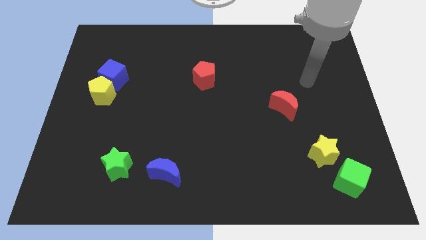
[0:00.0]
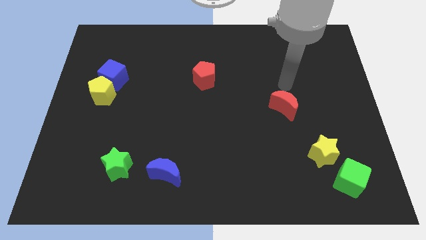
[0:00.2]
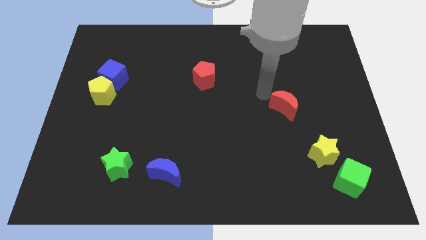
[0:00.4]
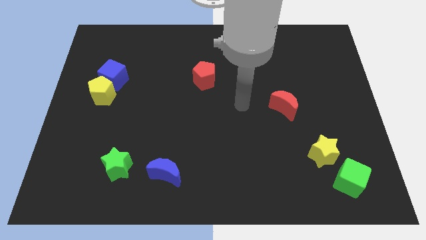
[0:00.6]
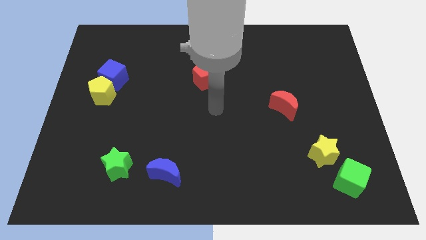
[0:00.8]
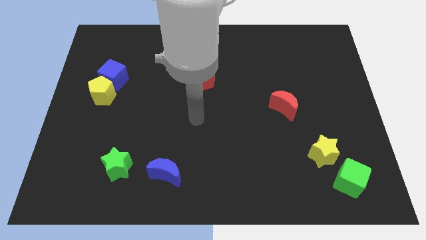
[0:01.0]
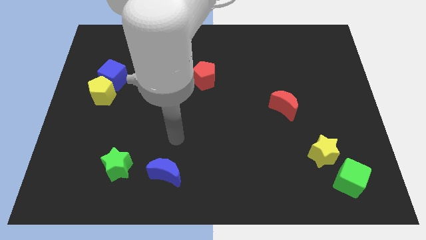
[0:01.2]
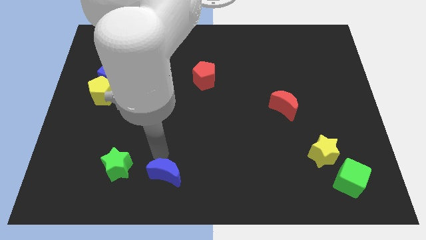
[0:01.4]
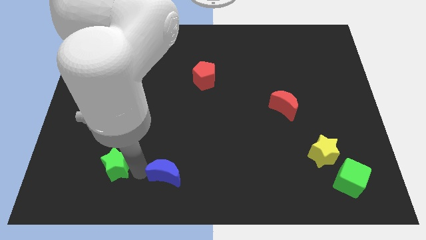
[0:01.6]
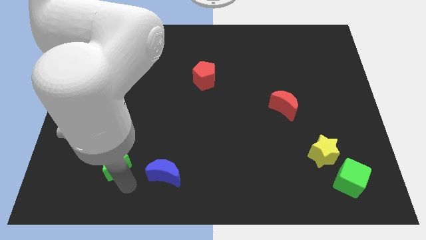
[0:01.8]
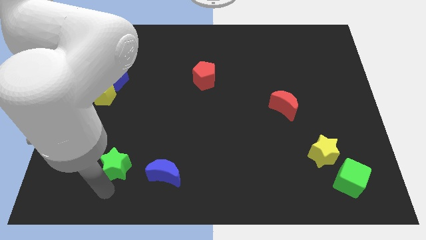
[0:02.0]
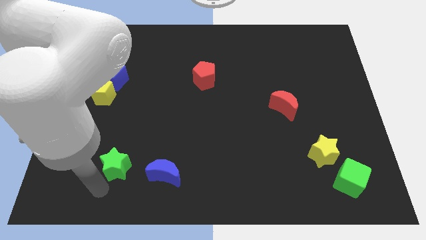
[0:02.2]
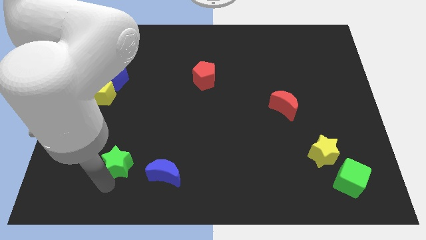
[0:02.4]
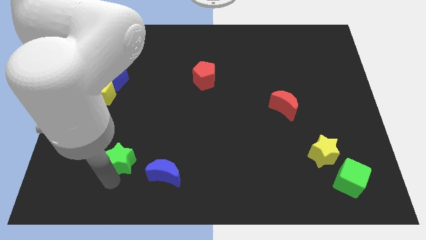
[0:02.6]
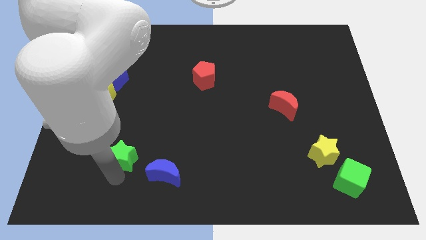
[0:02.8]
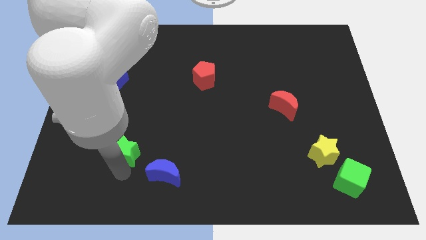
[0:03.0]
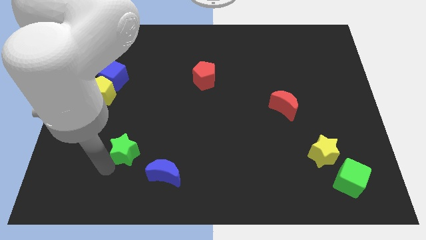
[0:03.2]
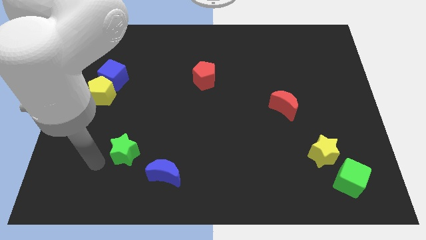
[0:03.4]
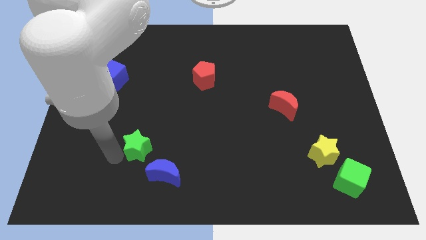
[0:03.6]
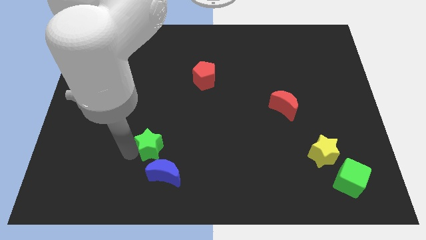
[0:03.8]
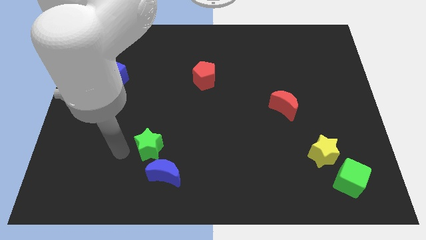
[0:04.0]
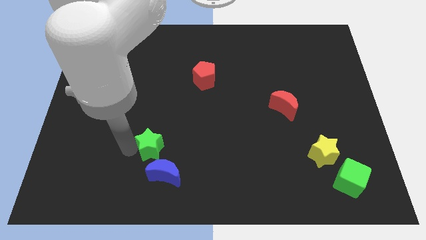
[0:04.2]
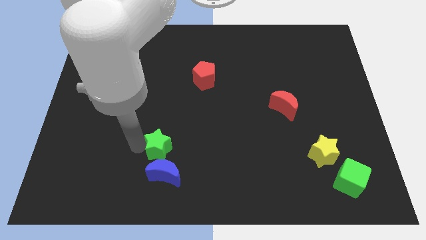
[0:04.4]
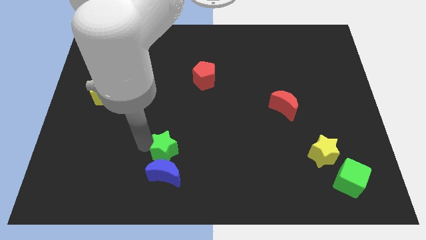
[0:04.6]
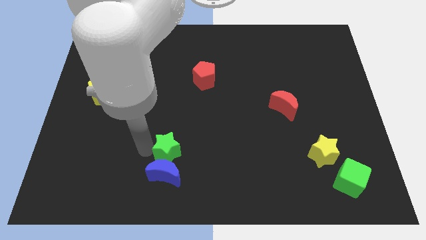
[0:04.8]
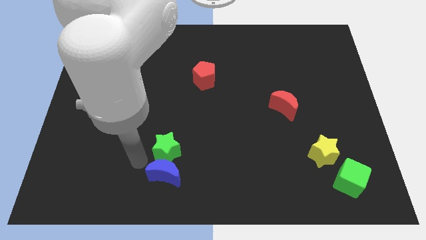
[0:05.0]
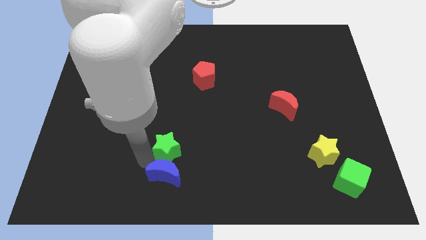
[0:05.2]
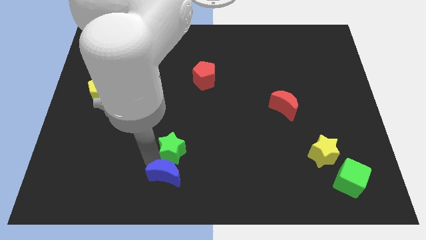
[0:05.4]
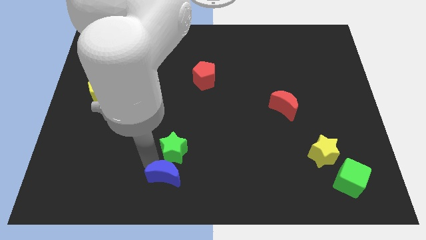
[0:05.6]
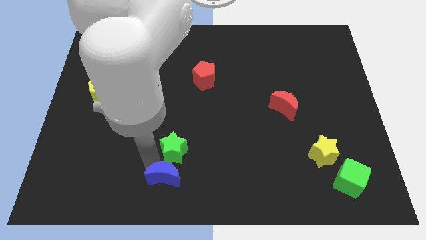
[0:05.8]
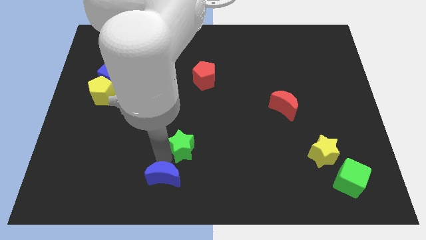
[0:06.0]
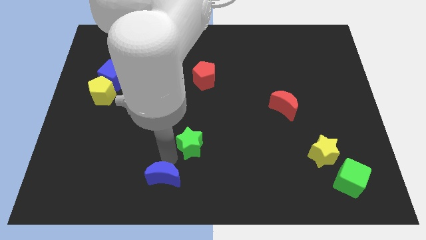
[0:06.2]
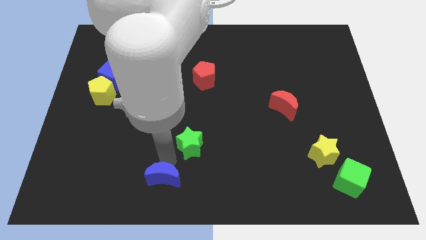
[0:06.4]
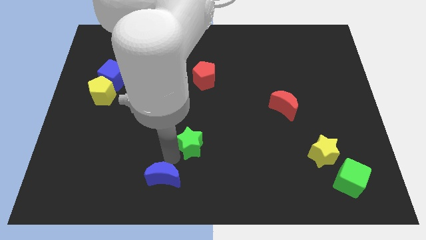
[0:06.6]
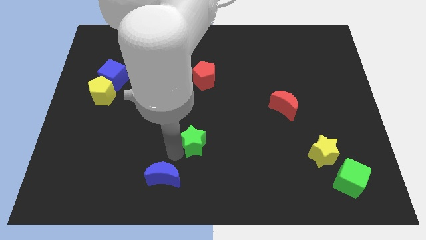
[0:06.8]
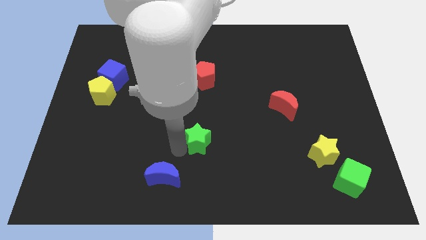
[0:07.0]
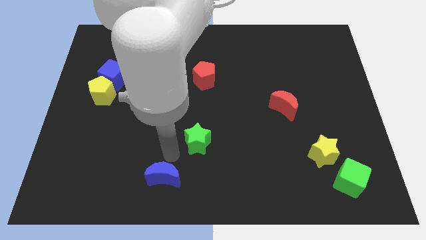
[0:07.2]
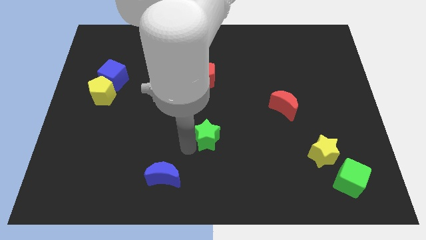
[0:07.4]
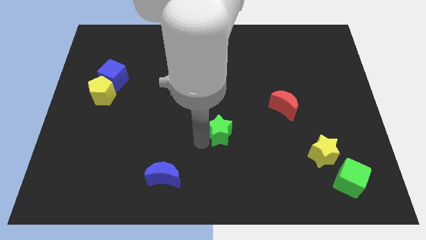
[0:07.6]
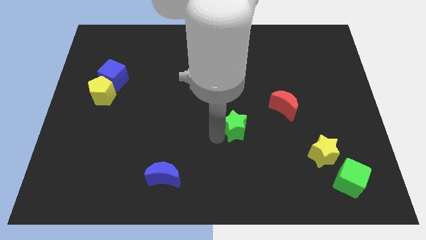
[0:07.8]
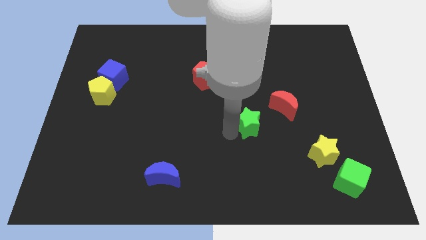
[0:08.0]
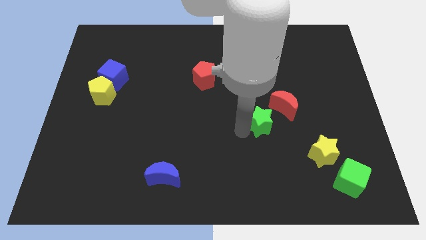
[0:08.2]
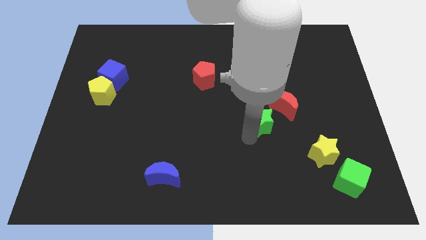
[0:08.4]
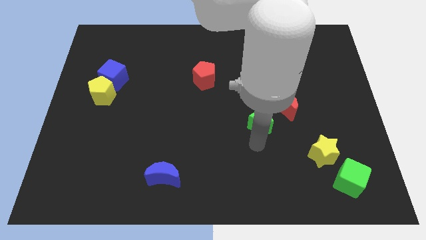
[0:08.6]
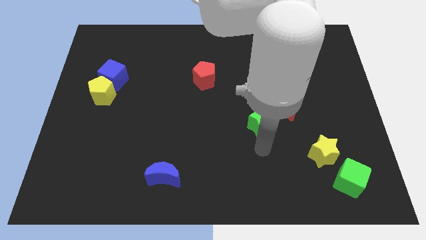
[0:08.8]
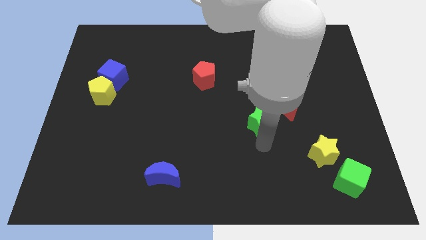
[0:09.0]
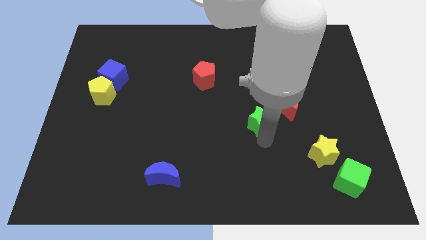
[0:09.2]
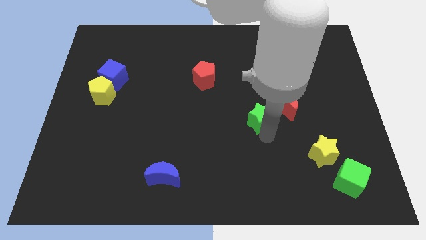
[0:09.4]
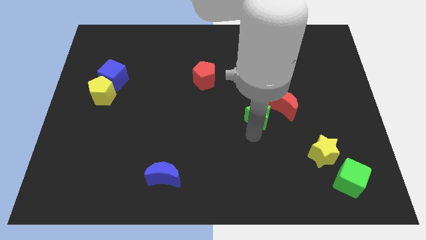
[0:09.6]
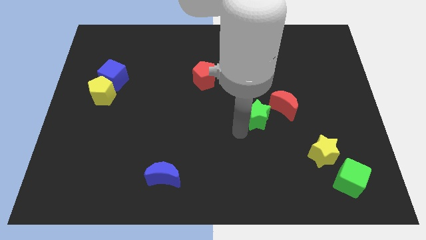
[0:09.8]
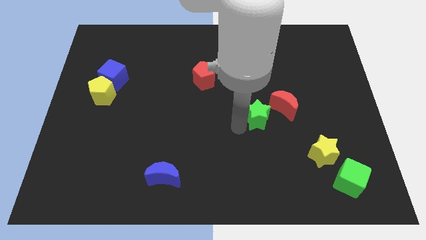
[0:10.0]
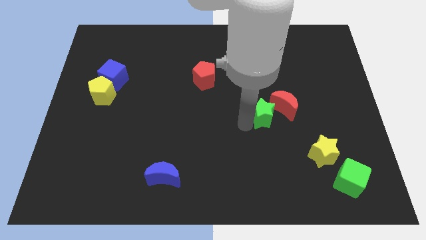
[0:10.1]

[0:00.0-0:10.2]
push the green star to the red moon

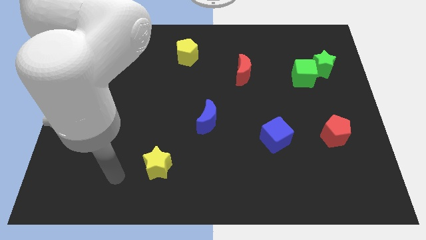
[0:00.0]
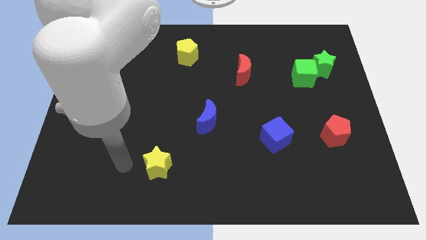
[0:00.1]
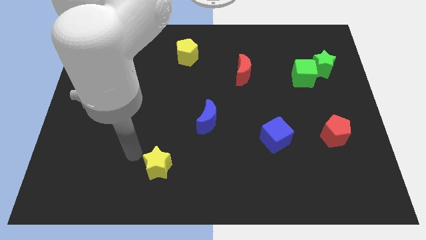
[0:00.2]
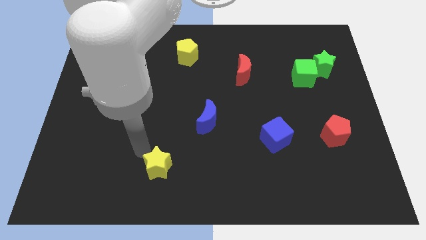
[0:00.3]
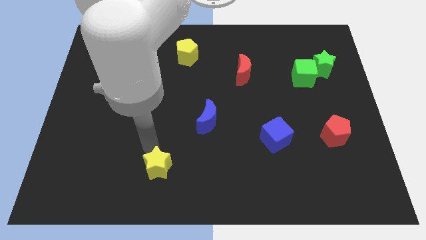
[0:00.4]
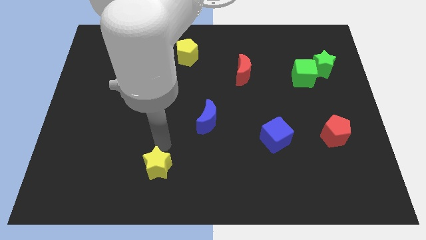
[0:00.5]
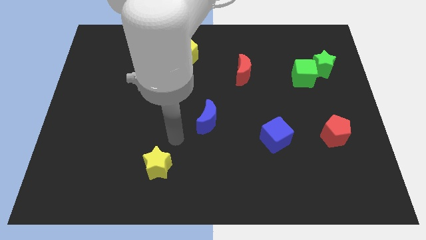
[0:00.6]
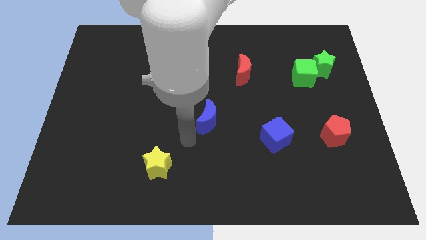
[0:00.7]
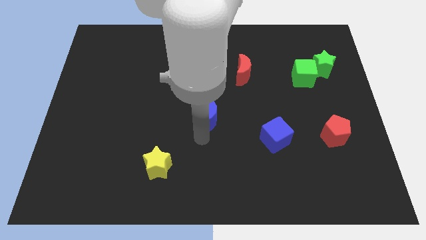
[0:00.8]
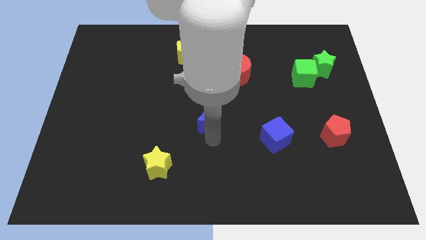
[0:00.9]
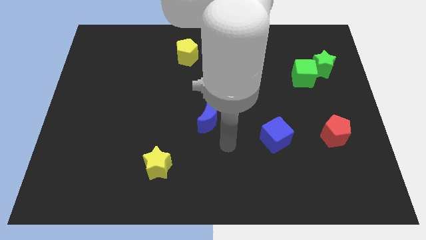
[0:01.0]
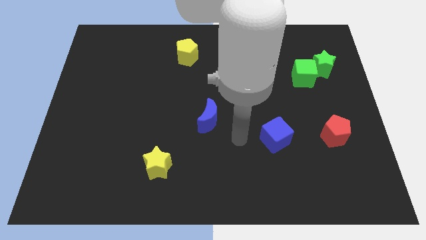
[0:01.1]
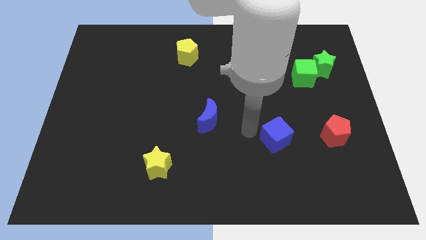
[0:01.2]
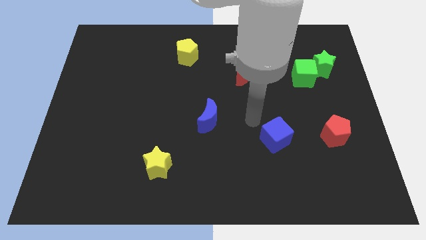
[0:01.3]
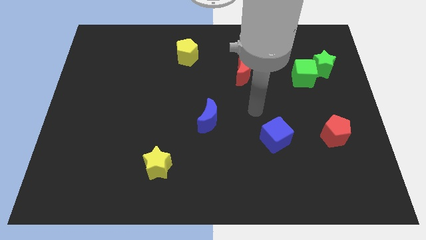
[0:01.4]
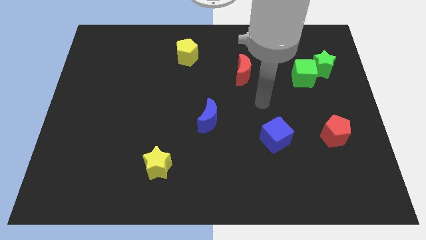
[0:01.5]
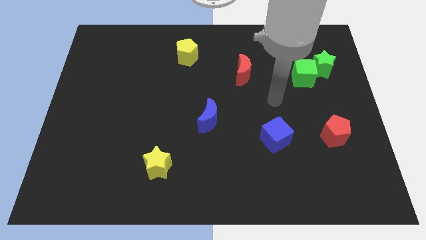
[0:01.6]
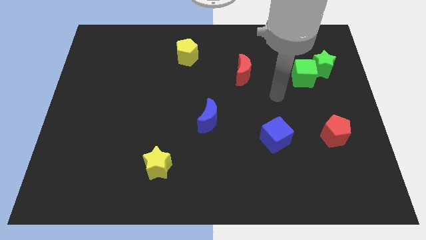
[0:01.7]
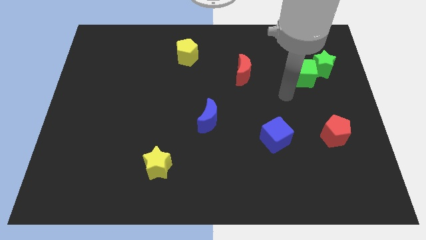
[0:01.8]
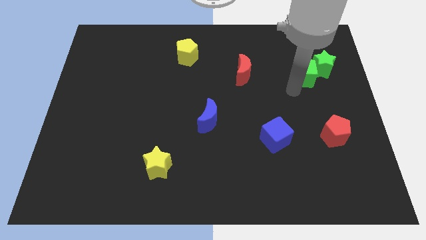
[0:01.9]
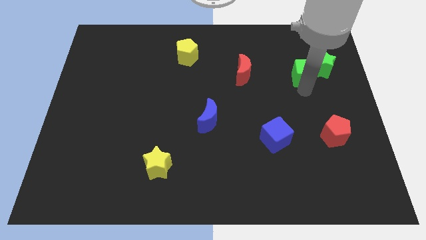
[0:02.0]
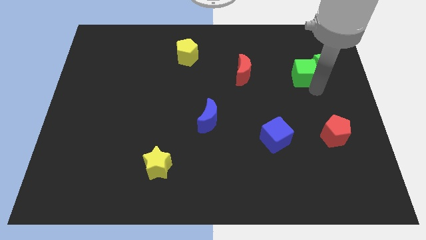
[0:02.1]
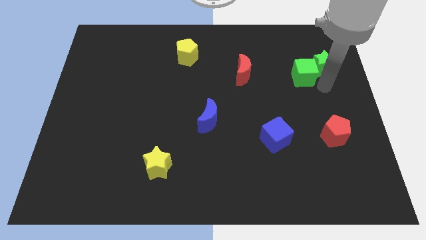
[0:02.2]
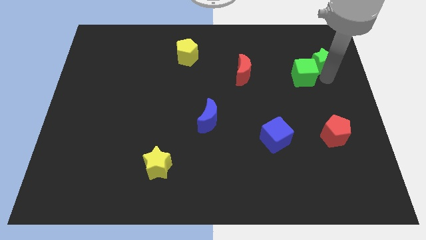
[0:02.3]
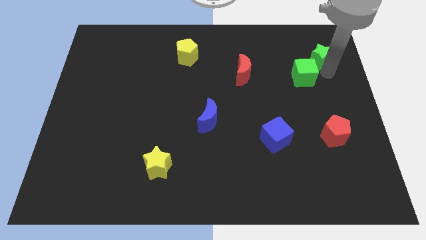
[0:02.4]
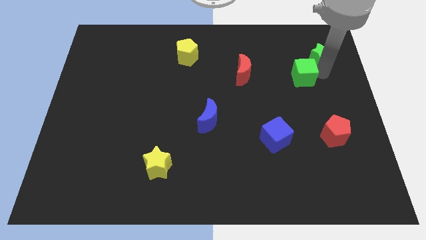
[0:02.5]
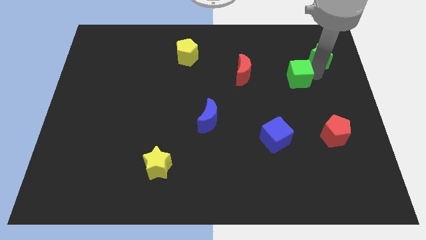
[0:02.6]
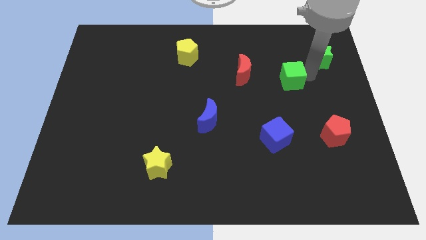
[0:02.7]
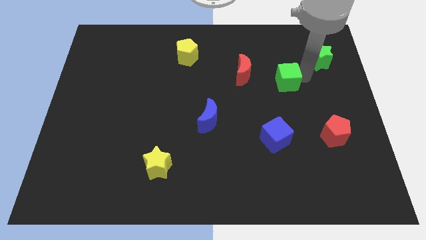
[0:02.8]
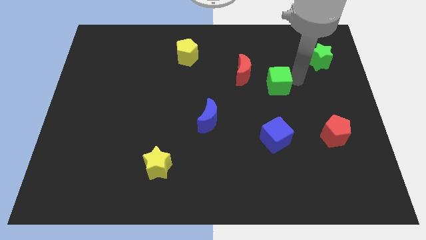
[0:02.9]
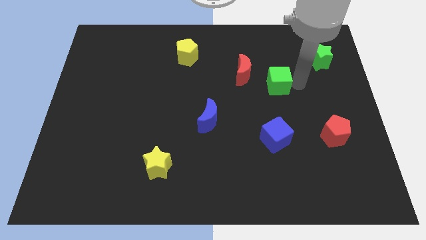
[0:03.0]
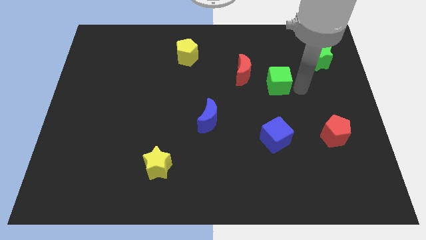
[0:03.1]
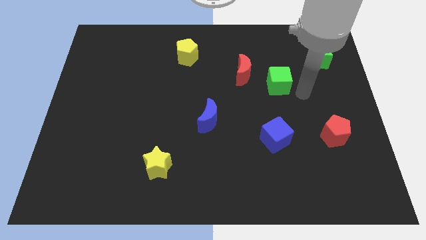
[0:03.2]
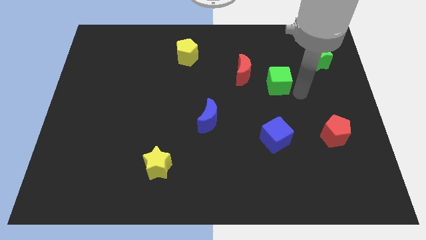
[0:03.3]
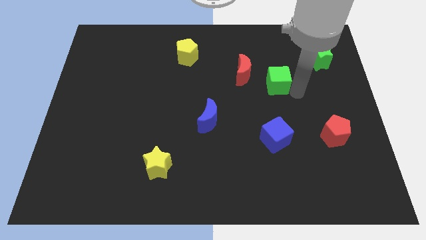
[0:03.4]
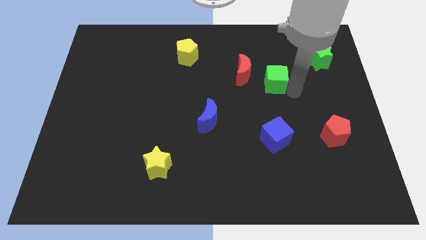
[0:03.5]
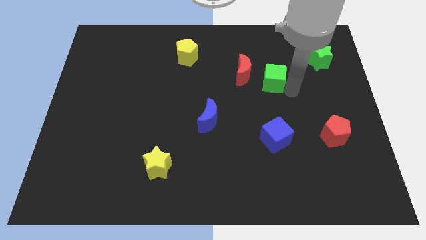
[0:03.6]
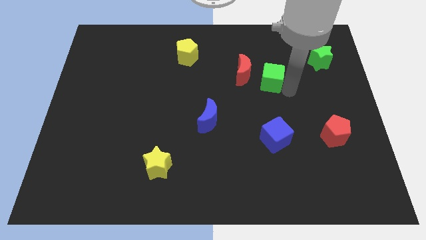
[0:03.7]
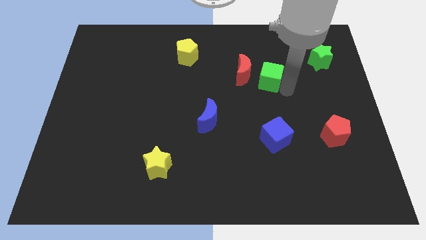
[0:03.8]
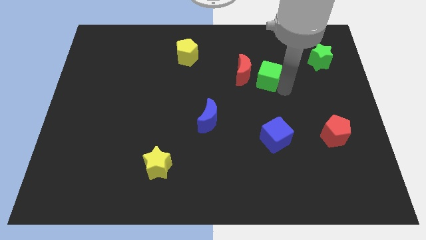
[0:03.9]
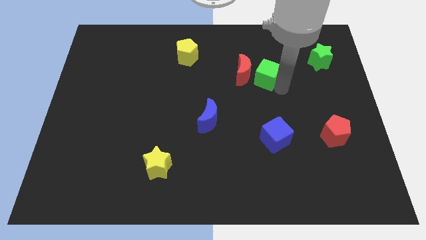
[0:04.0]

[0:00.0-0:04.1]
put the green cube close to the red moon
